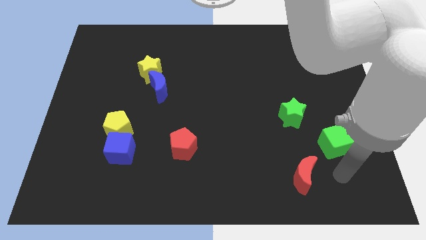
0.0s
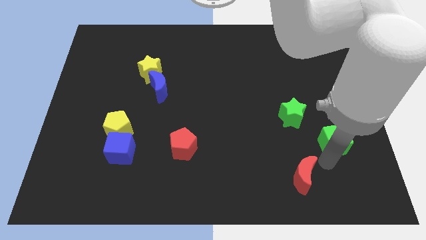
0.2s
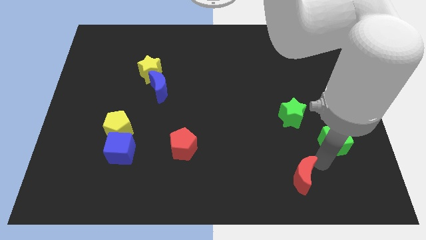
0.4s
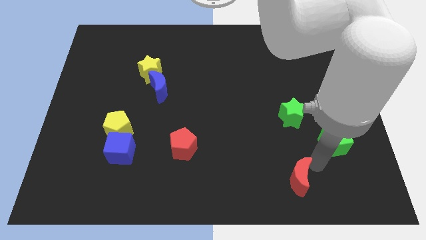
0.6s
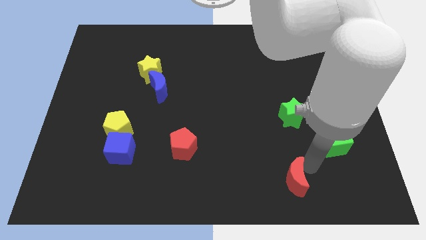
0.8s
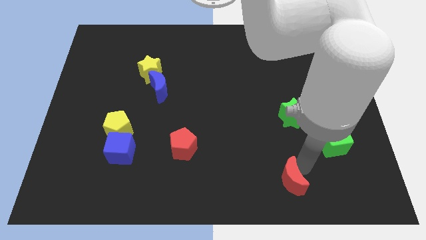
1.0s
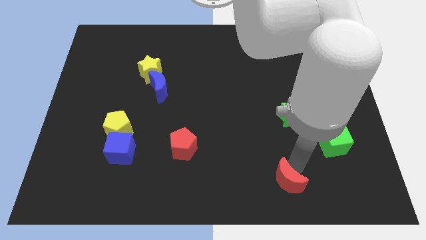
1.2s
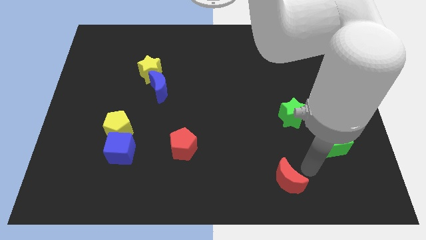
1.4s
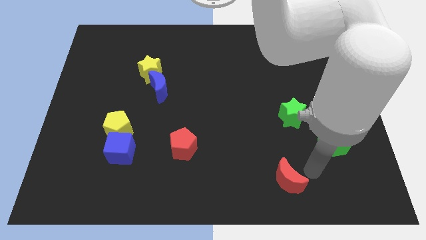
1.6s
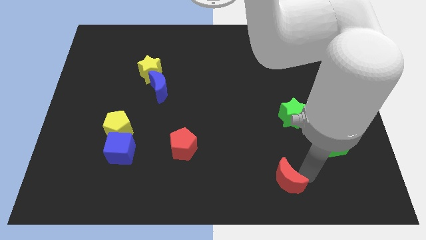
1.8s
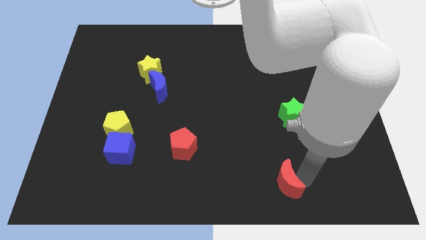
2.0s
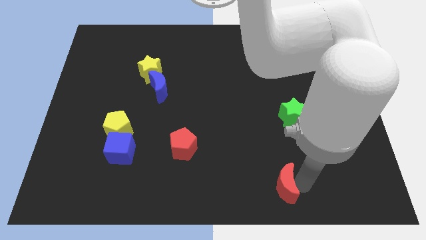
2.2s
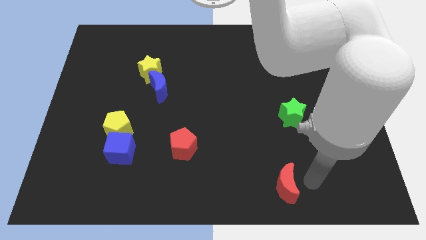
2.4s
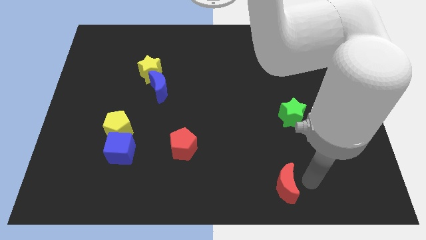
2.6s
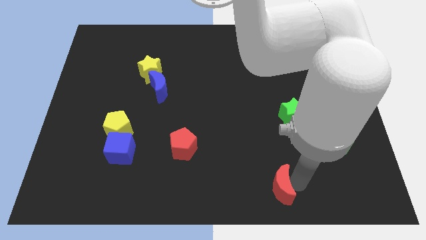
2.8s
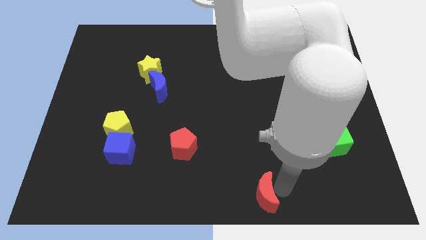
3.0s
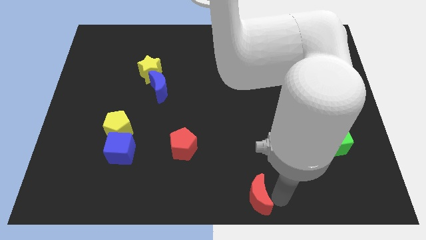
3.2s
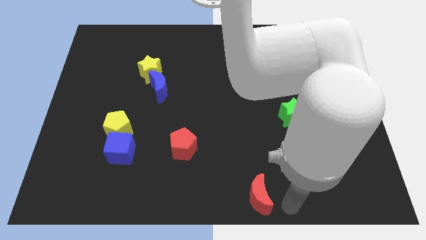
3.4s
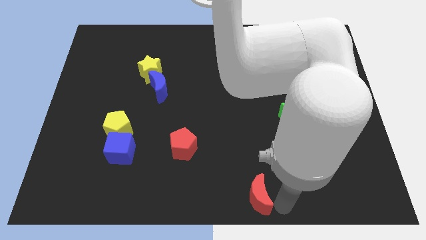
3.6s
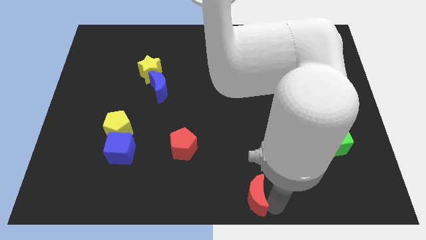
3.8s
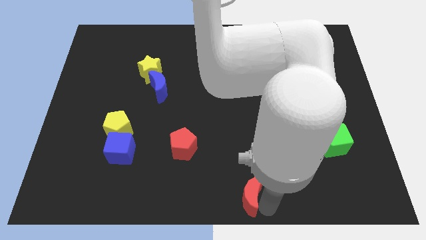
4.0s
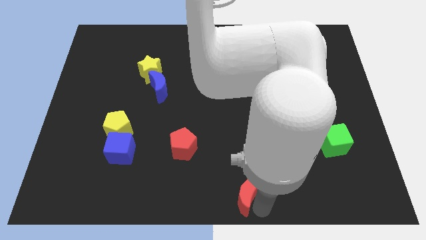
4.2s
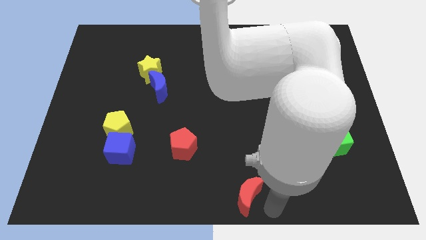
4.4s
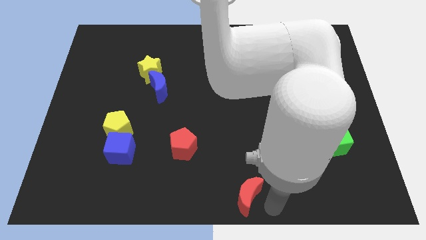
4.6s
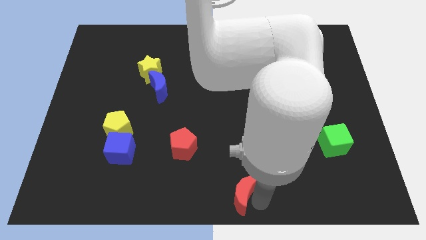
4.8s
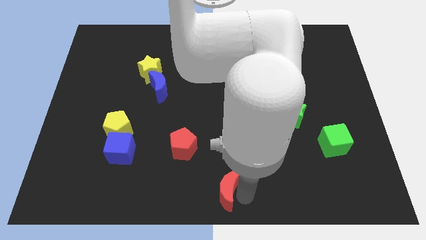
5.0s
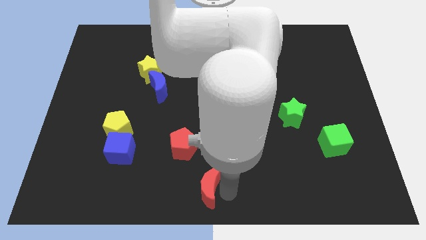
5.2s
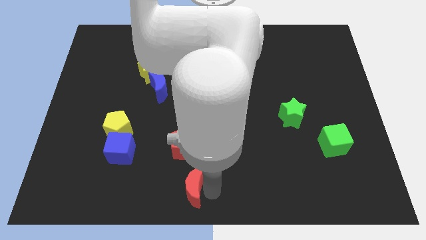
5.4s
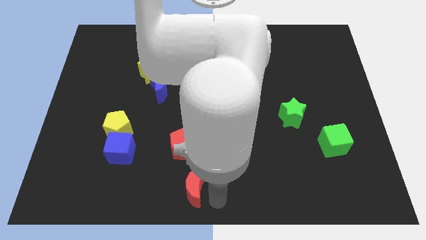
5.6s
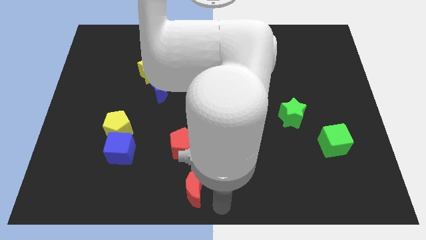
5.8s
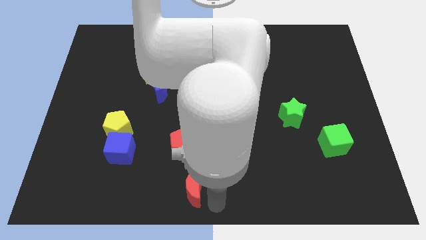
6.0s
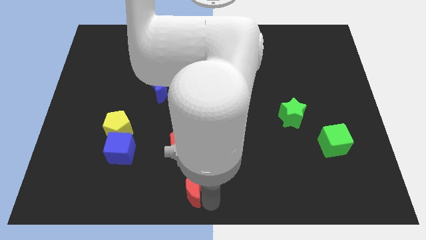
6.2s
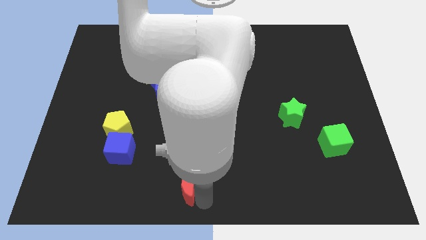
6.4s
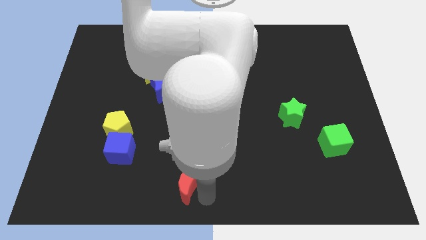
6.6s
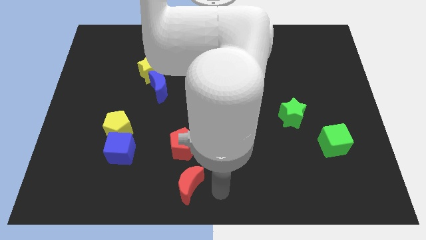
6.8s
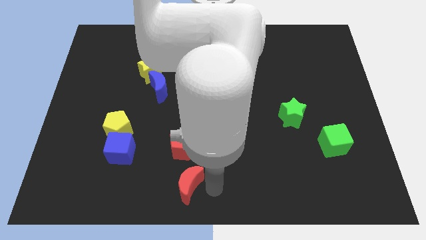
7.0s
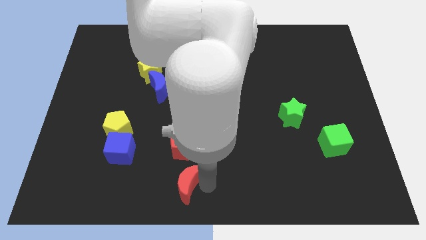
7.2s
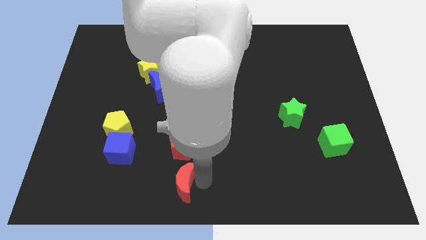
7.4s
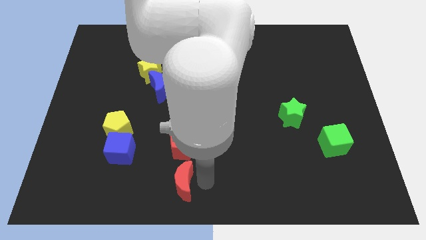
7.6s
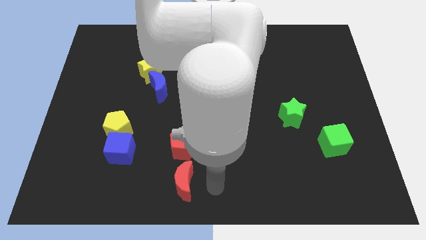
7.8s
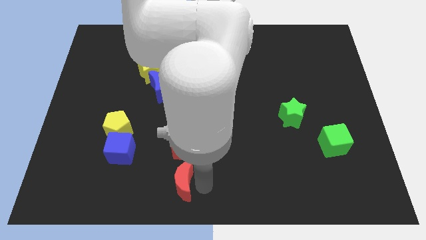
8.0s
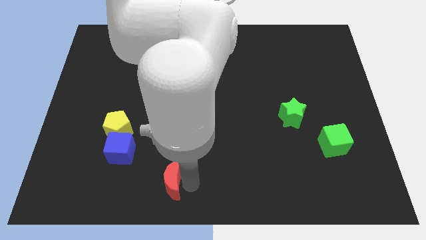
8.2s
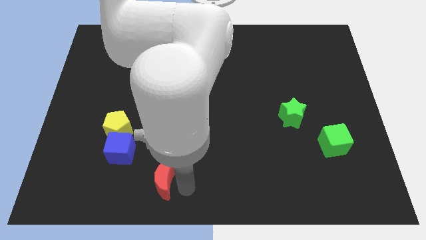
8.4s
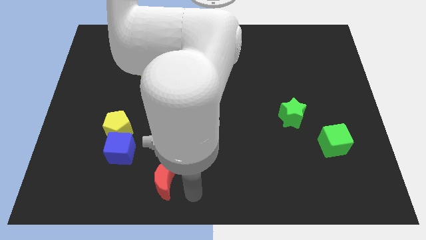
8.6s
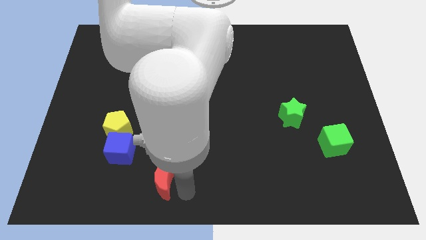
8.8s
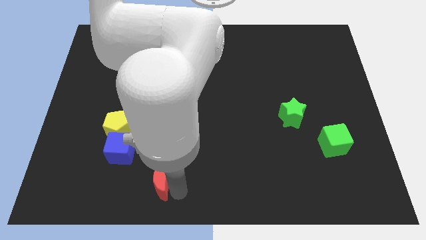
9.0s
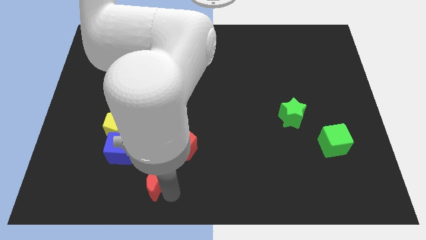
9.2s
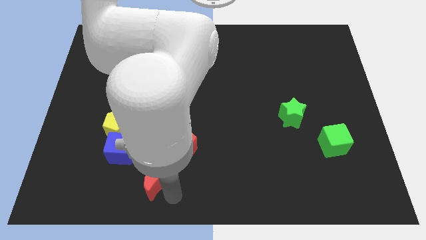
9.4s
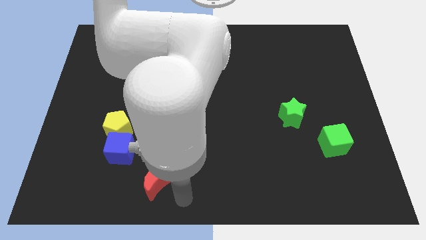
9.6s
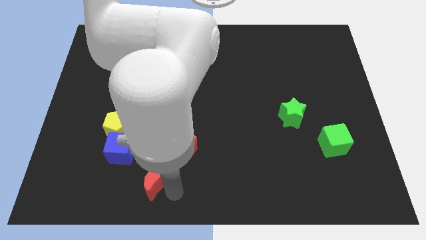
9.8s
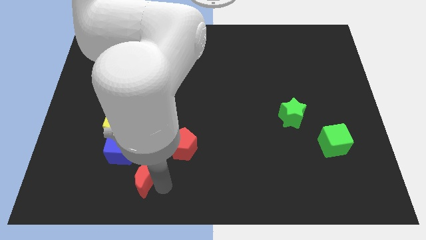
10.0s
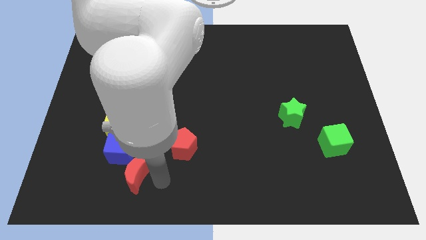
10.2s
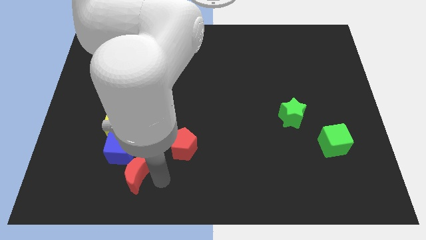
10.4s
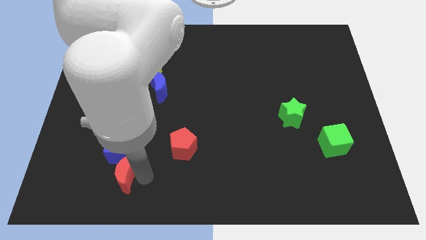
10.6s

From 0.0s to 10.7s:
push the red moon to the bottom of the yellow pentagon
